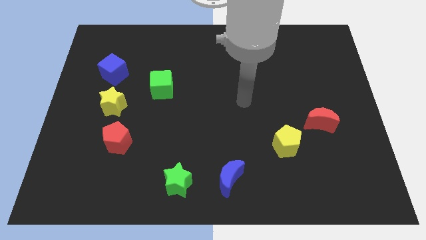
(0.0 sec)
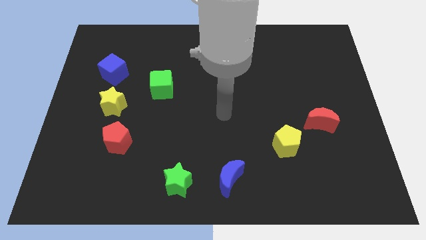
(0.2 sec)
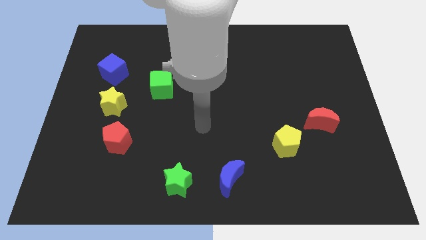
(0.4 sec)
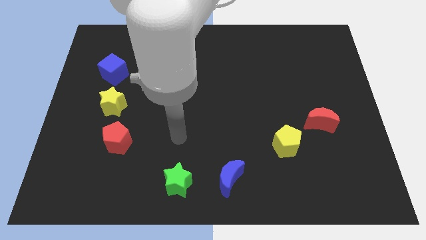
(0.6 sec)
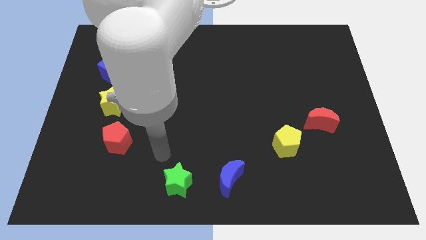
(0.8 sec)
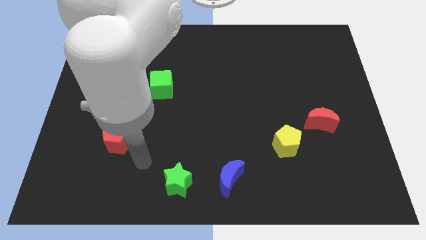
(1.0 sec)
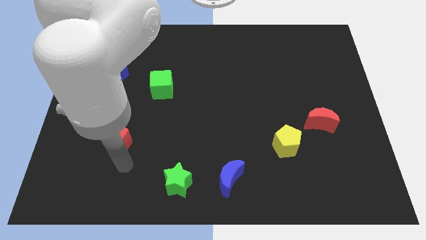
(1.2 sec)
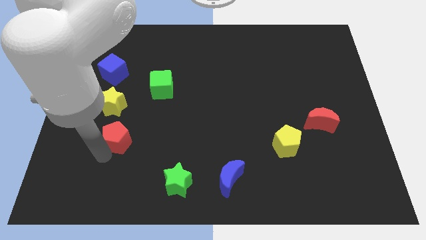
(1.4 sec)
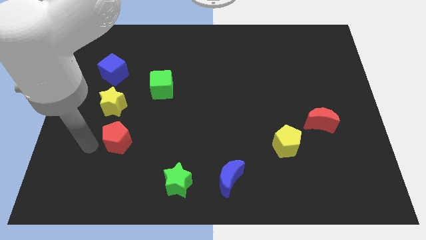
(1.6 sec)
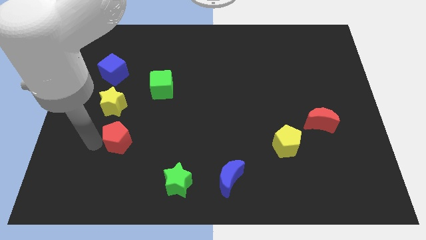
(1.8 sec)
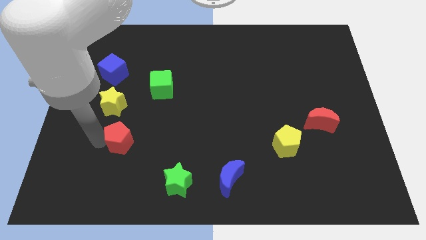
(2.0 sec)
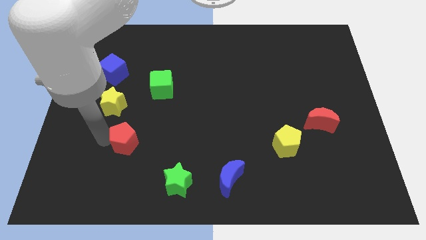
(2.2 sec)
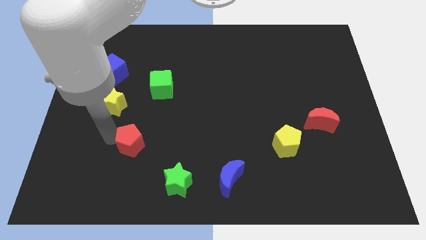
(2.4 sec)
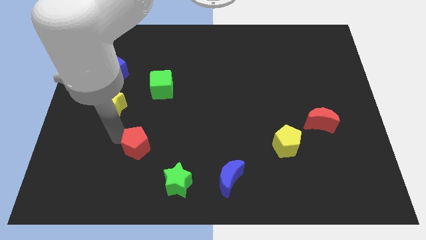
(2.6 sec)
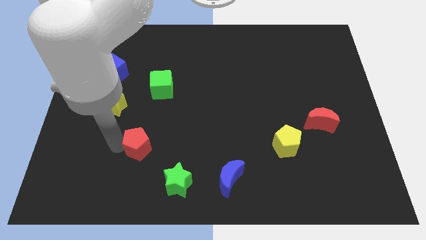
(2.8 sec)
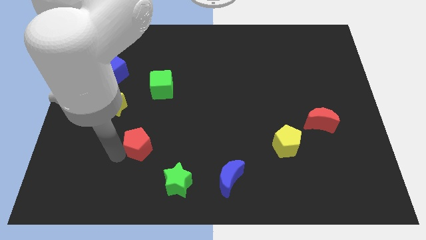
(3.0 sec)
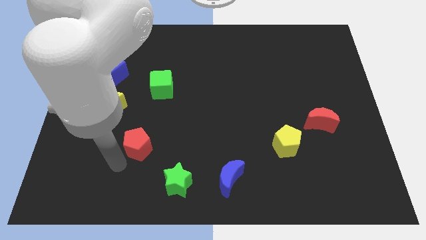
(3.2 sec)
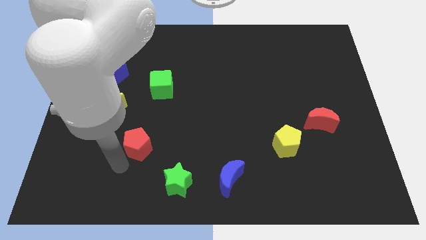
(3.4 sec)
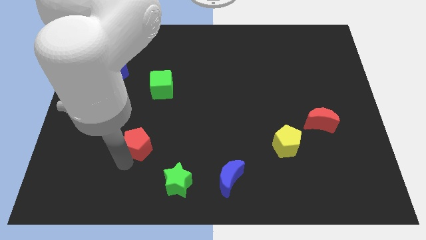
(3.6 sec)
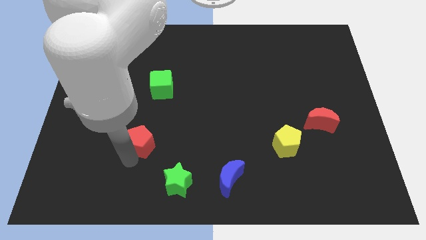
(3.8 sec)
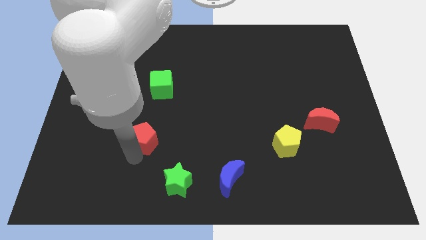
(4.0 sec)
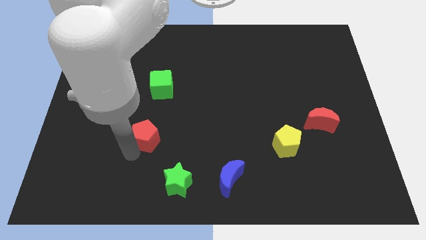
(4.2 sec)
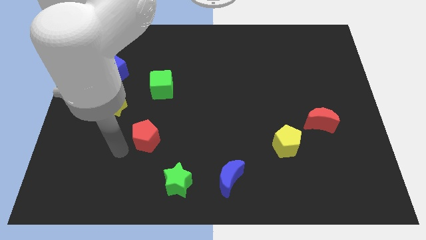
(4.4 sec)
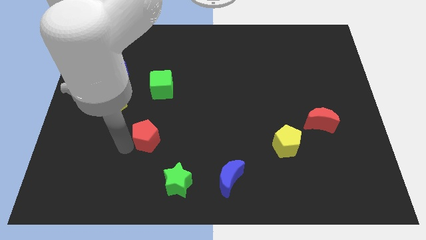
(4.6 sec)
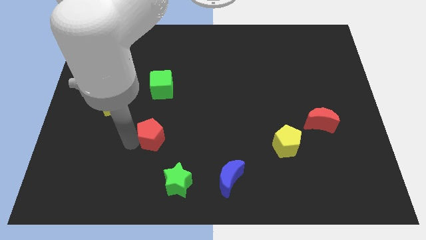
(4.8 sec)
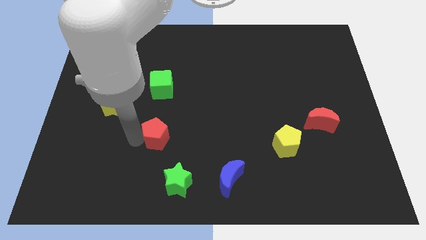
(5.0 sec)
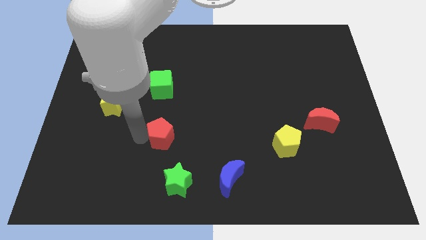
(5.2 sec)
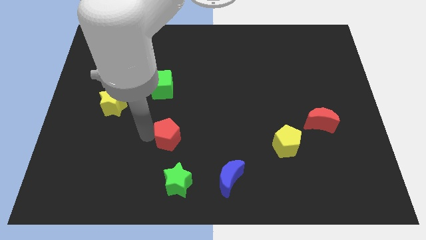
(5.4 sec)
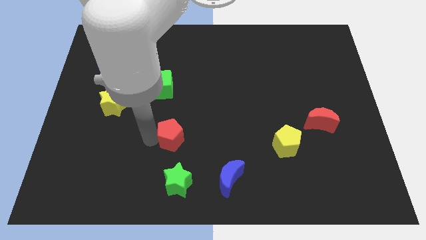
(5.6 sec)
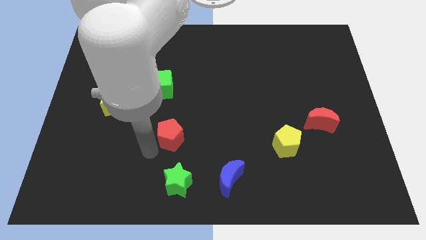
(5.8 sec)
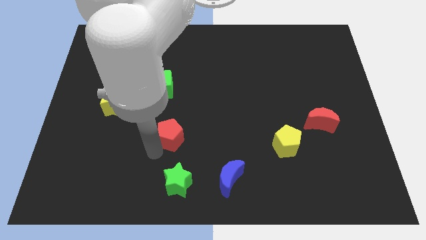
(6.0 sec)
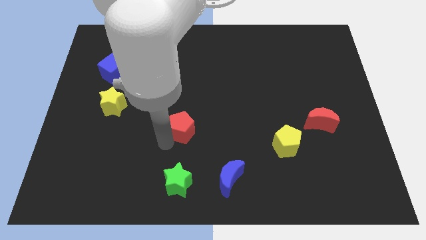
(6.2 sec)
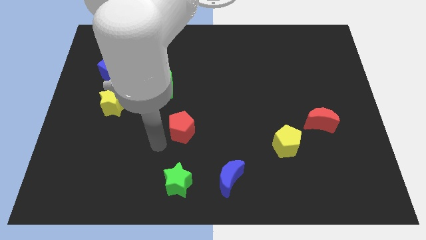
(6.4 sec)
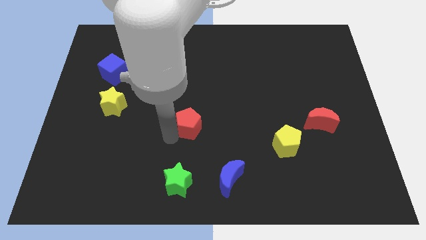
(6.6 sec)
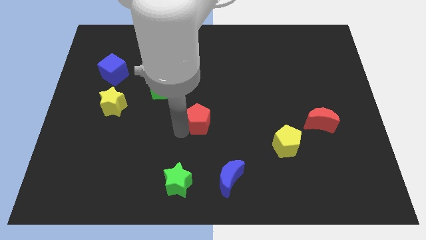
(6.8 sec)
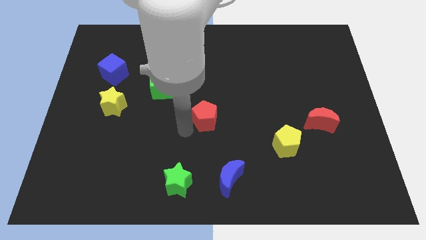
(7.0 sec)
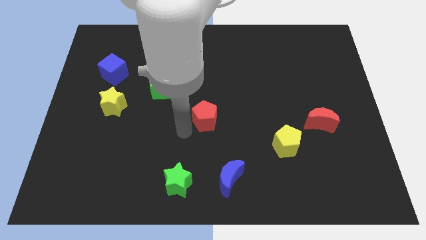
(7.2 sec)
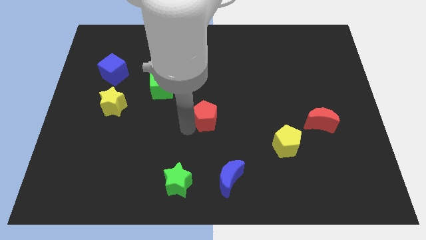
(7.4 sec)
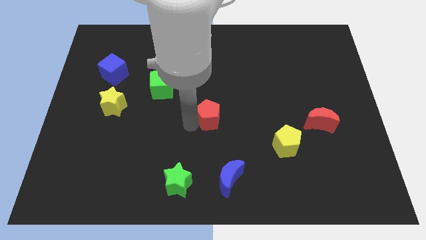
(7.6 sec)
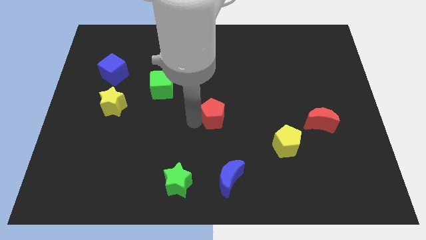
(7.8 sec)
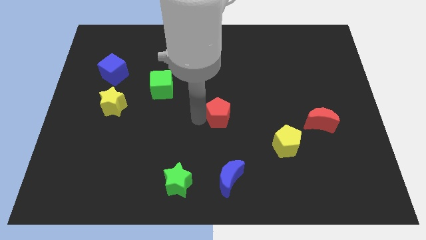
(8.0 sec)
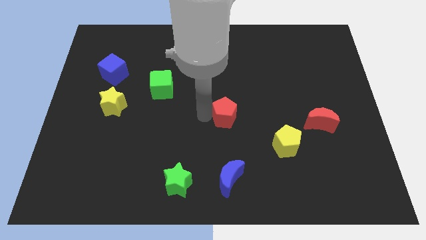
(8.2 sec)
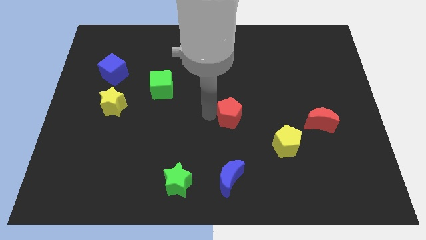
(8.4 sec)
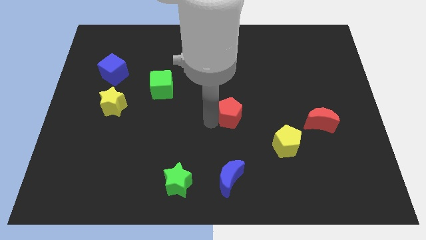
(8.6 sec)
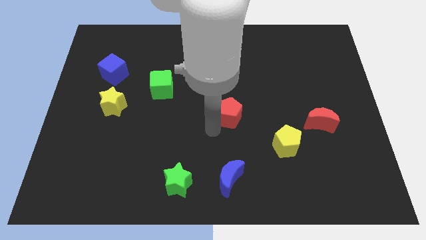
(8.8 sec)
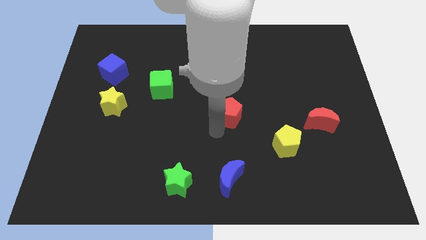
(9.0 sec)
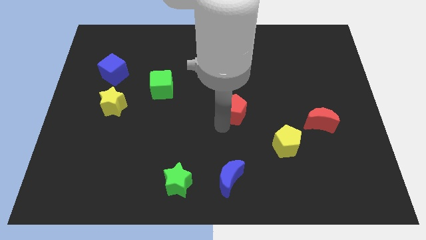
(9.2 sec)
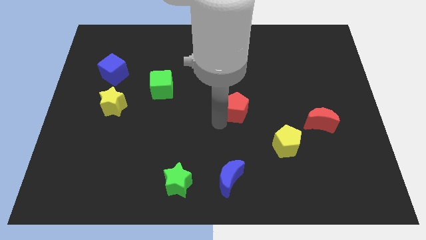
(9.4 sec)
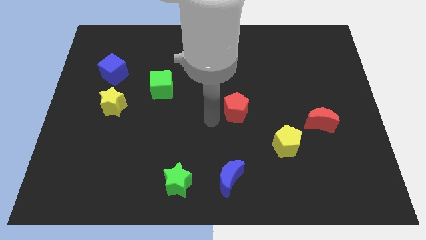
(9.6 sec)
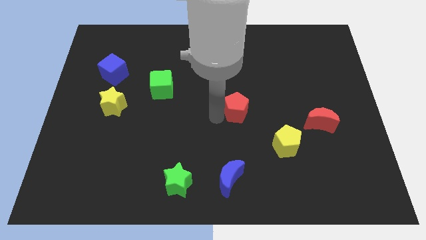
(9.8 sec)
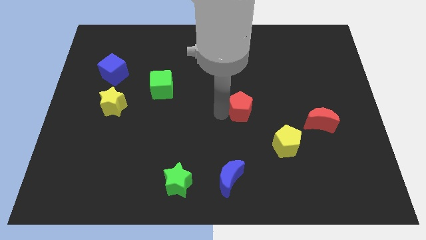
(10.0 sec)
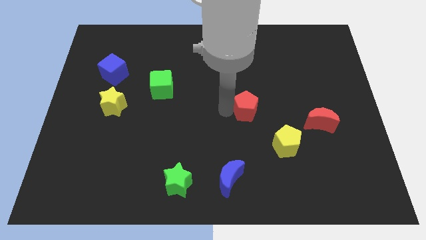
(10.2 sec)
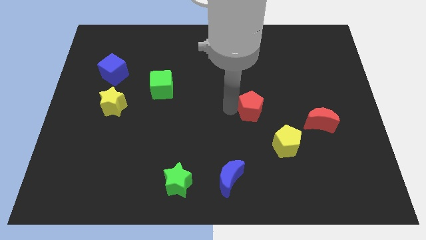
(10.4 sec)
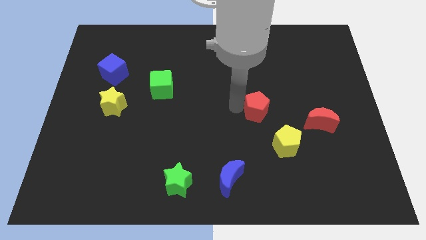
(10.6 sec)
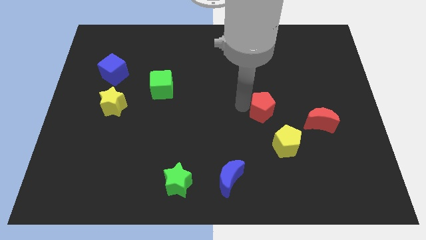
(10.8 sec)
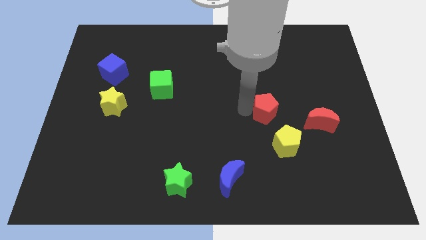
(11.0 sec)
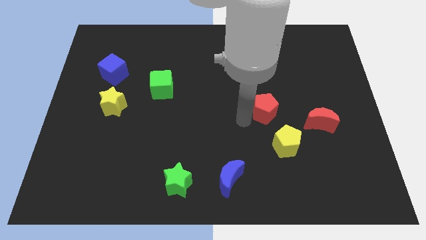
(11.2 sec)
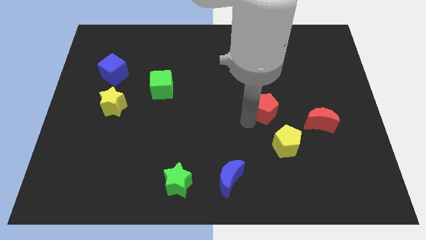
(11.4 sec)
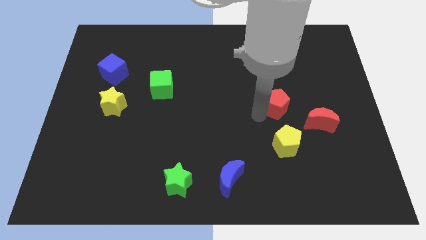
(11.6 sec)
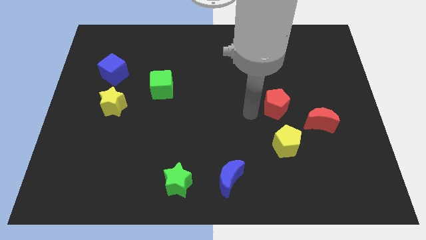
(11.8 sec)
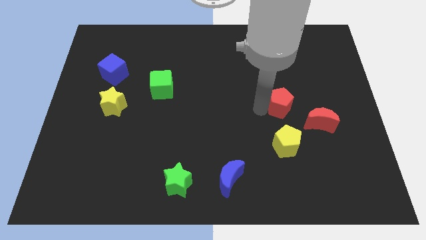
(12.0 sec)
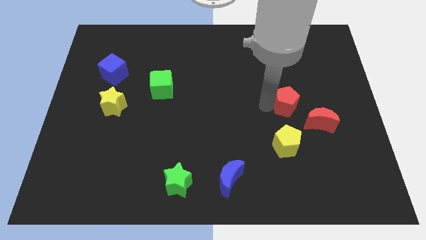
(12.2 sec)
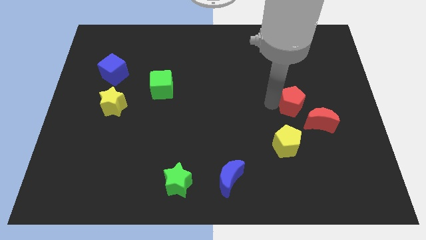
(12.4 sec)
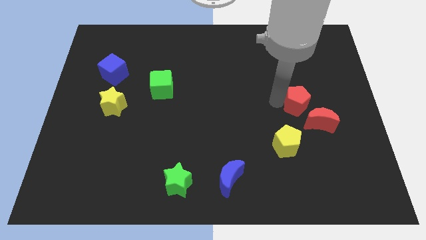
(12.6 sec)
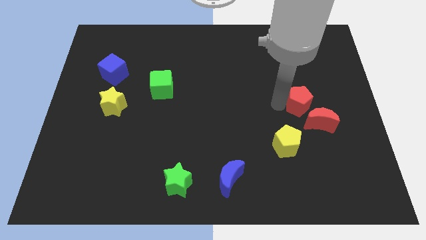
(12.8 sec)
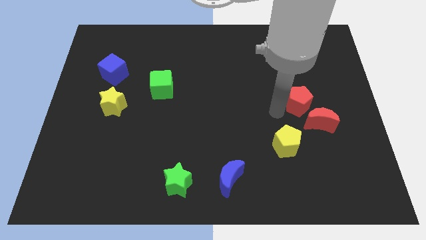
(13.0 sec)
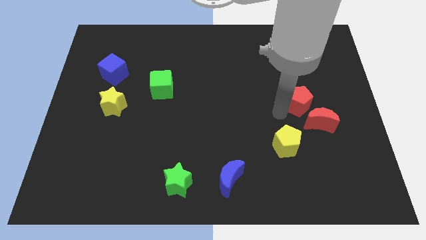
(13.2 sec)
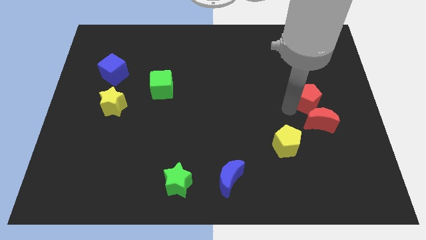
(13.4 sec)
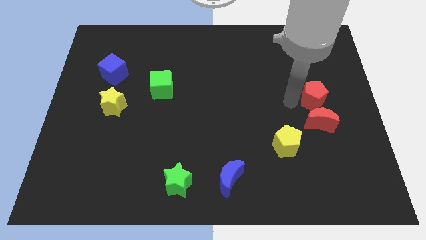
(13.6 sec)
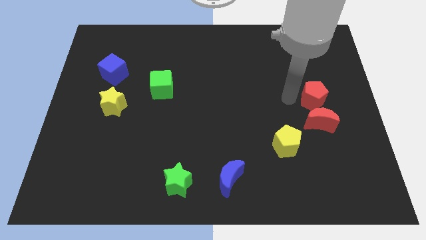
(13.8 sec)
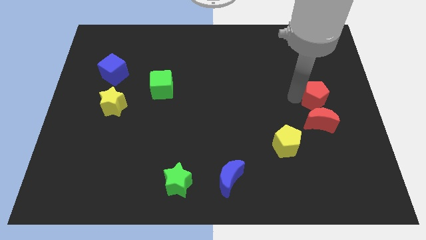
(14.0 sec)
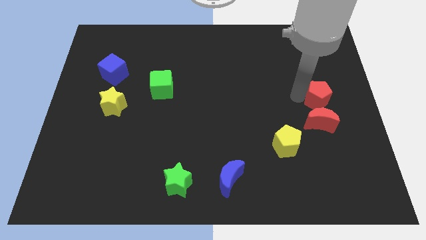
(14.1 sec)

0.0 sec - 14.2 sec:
slide the red pentagon to the center right
